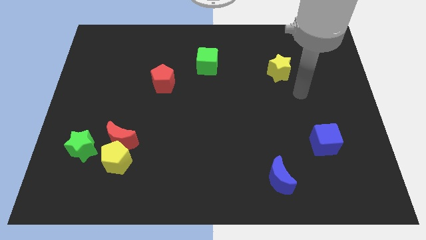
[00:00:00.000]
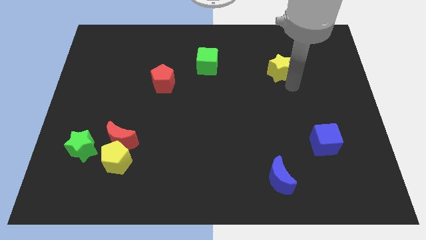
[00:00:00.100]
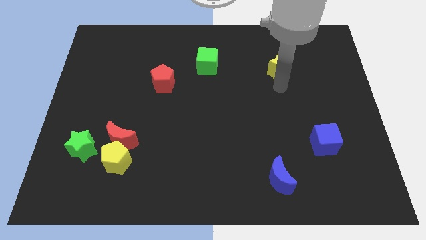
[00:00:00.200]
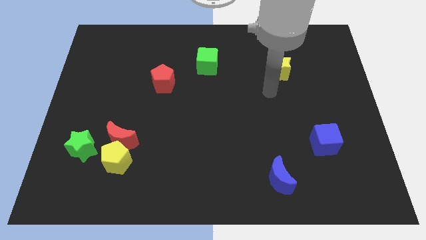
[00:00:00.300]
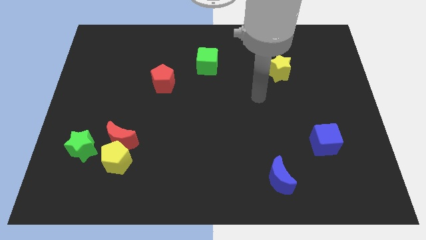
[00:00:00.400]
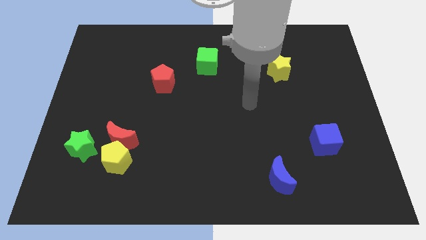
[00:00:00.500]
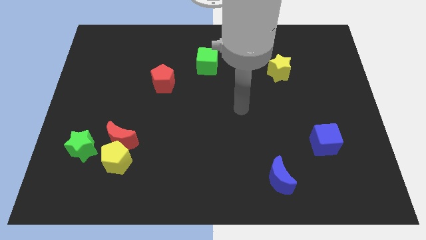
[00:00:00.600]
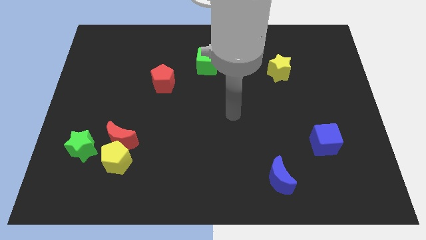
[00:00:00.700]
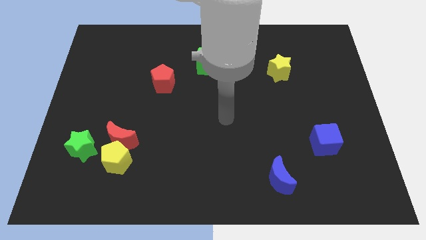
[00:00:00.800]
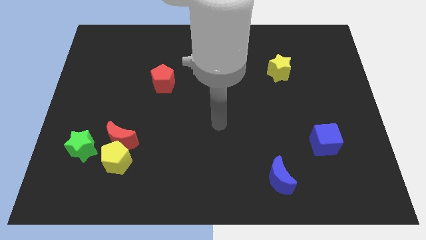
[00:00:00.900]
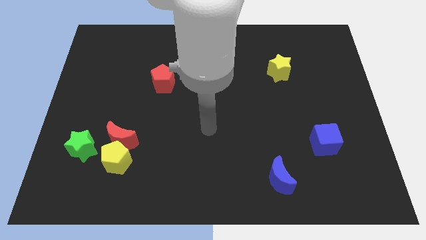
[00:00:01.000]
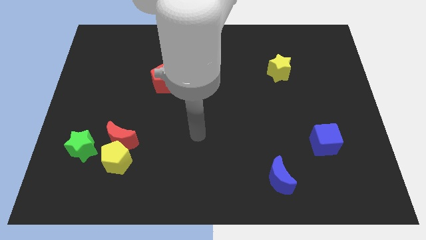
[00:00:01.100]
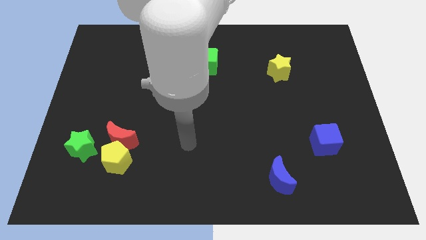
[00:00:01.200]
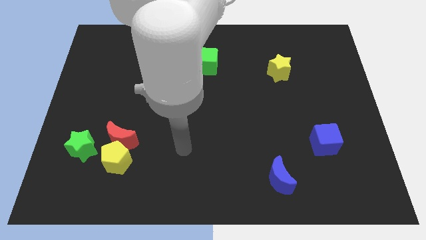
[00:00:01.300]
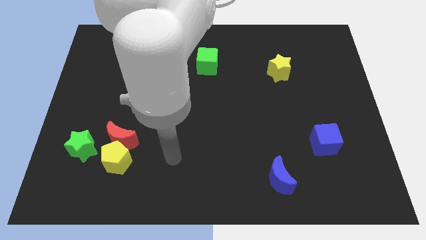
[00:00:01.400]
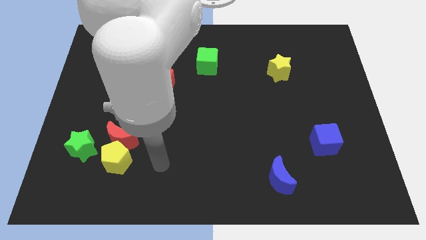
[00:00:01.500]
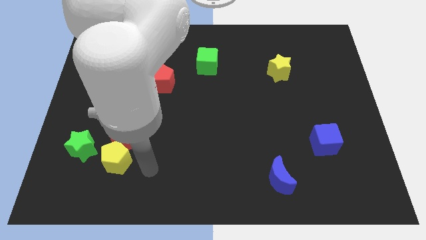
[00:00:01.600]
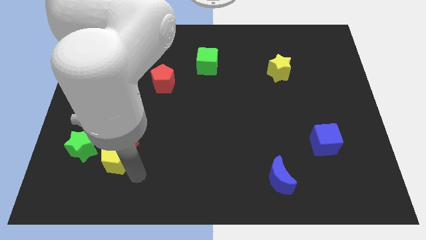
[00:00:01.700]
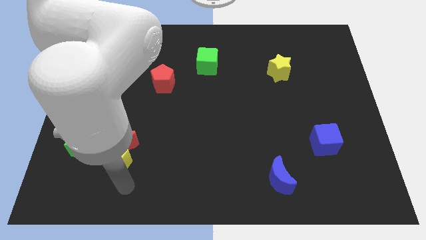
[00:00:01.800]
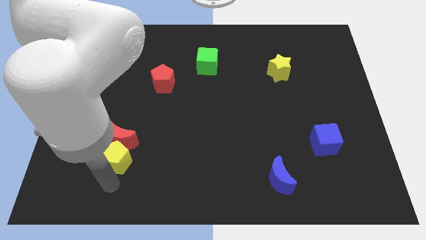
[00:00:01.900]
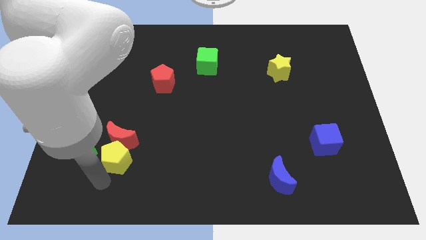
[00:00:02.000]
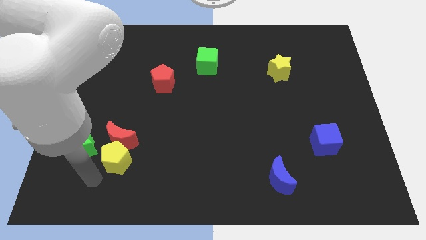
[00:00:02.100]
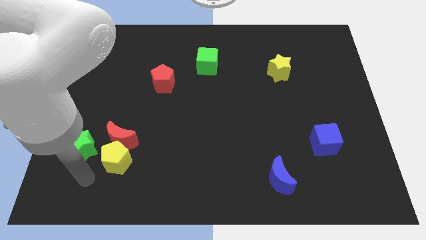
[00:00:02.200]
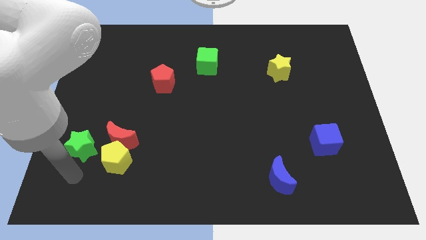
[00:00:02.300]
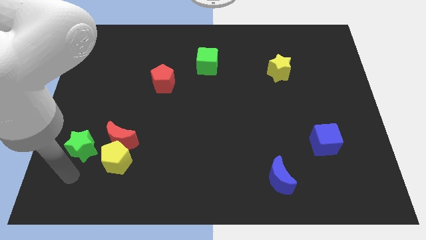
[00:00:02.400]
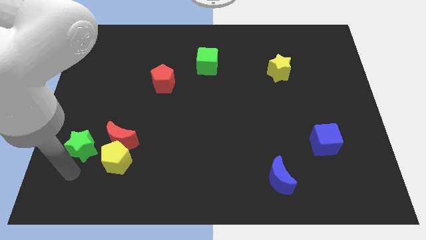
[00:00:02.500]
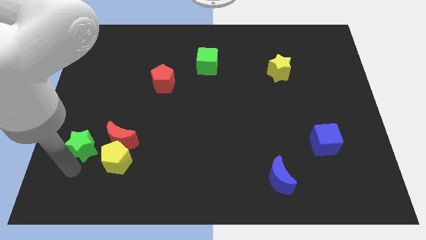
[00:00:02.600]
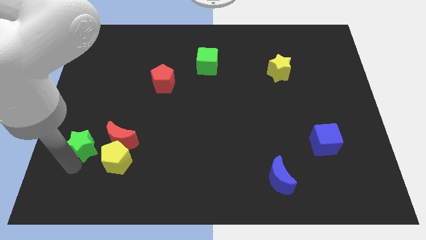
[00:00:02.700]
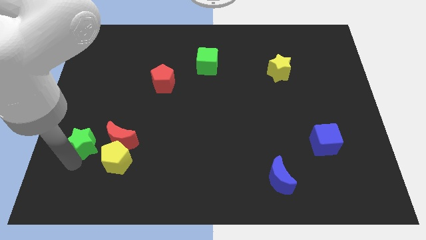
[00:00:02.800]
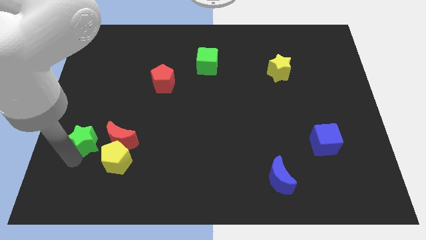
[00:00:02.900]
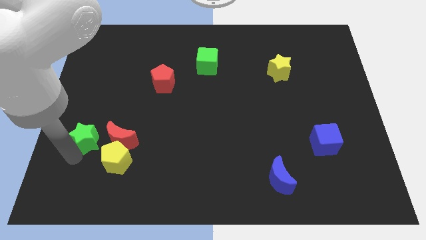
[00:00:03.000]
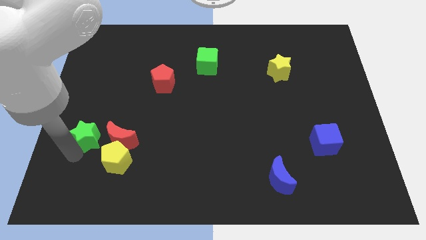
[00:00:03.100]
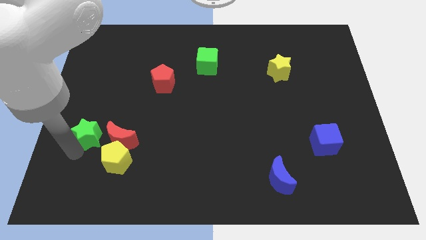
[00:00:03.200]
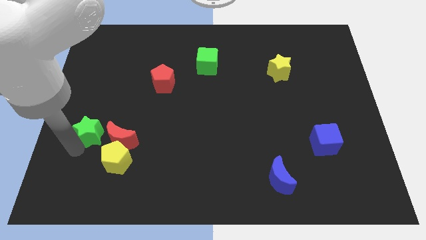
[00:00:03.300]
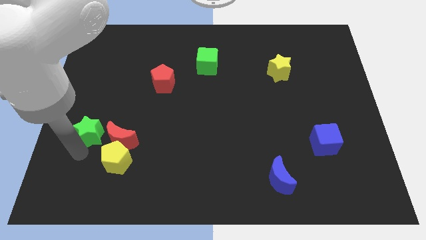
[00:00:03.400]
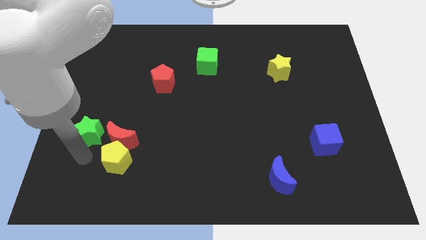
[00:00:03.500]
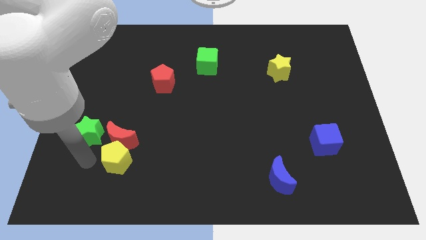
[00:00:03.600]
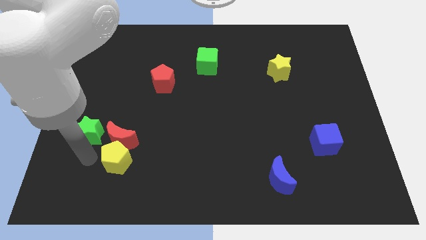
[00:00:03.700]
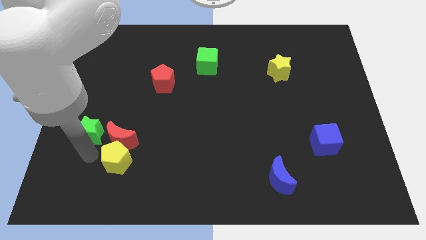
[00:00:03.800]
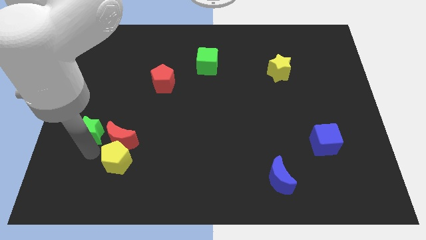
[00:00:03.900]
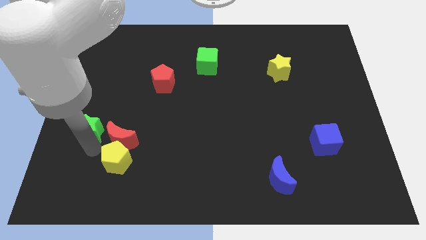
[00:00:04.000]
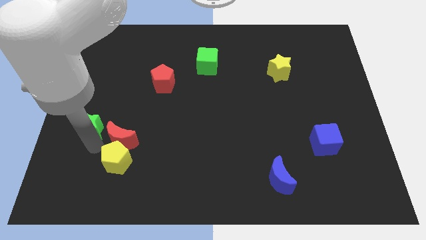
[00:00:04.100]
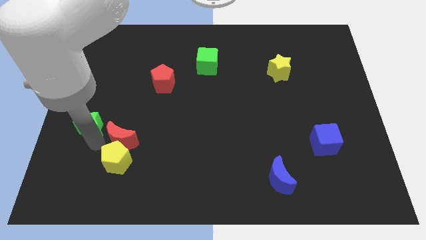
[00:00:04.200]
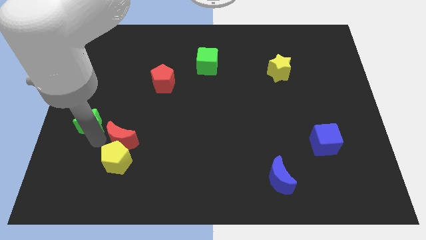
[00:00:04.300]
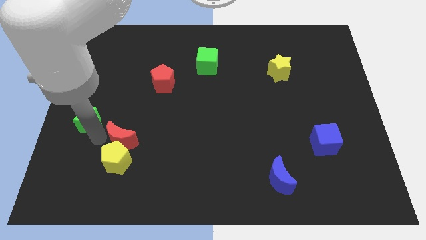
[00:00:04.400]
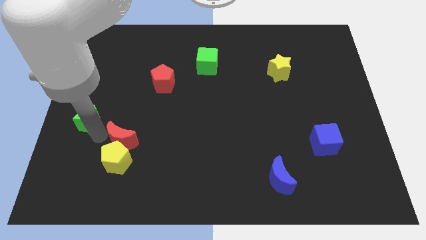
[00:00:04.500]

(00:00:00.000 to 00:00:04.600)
slightly push the green star upwards

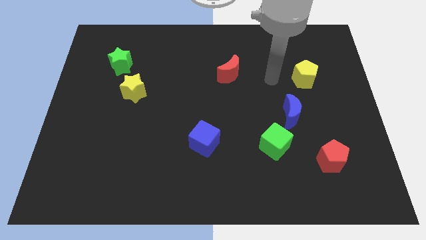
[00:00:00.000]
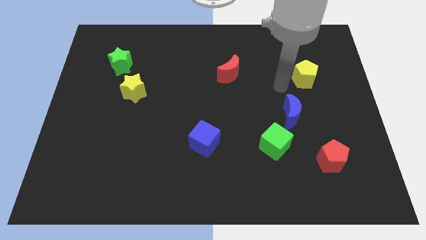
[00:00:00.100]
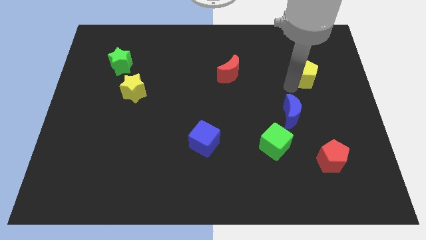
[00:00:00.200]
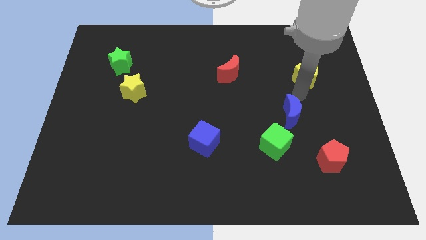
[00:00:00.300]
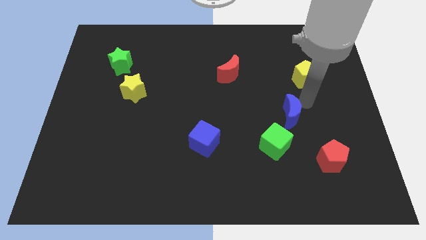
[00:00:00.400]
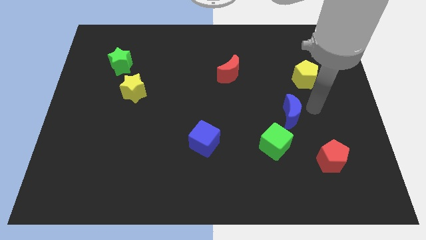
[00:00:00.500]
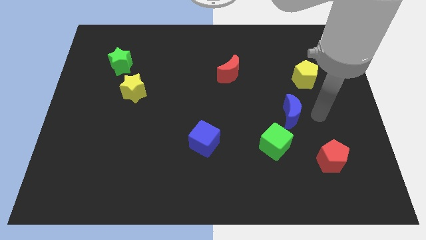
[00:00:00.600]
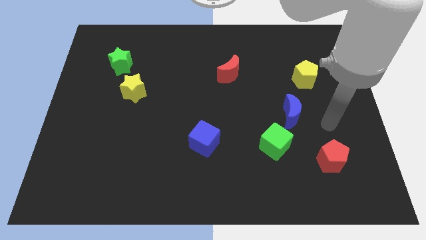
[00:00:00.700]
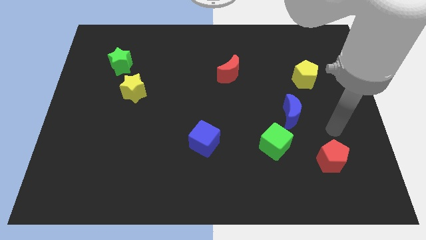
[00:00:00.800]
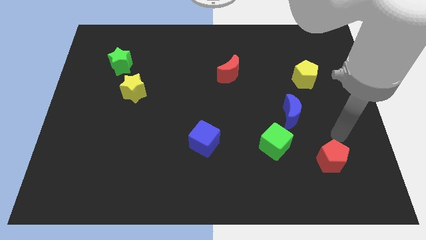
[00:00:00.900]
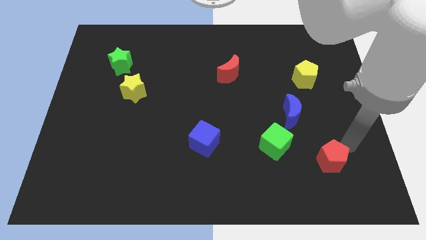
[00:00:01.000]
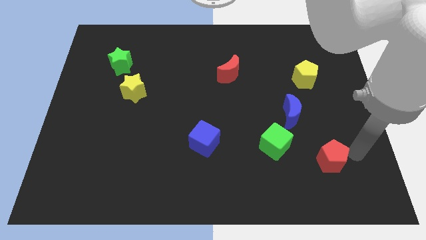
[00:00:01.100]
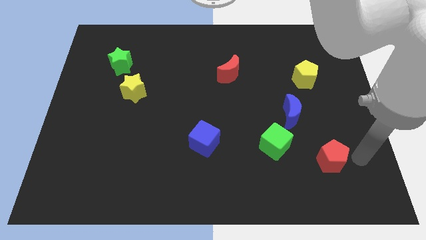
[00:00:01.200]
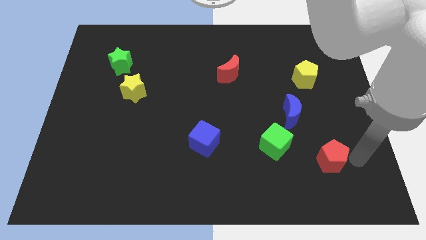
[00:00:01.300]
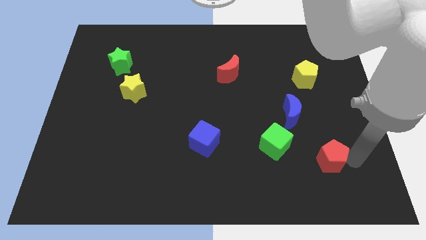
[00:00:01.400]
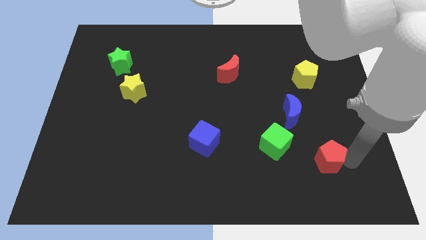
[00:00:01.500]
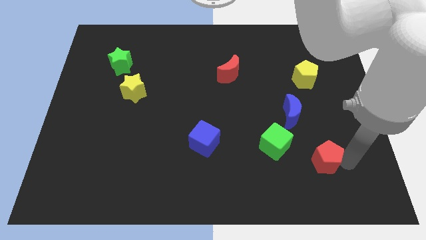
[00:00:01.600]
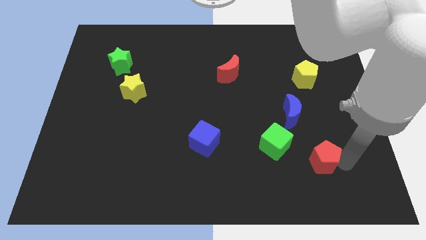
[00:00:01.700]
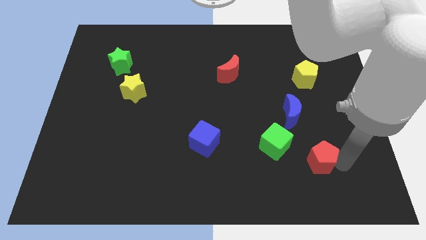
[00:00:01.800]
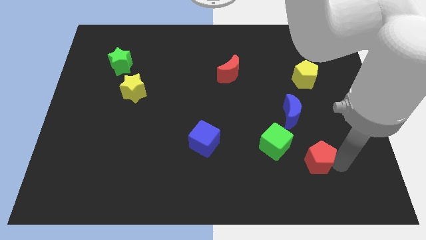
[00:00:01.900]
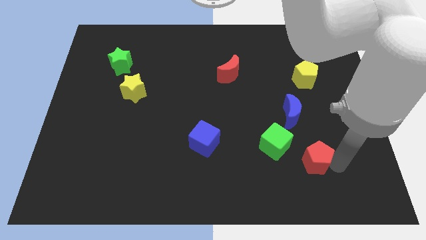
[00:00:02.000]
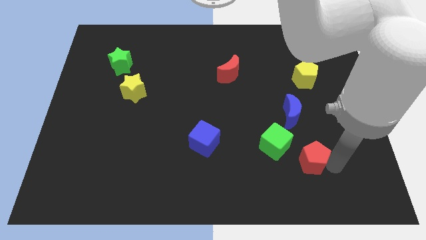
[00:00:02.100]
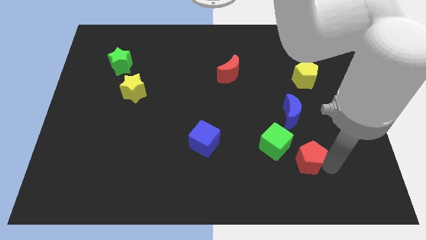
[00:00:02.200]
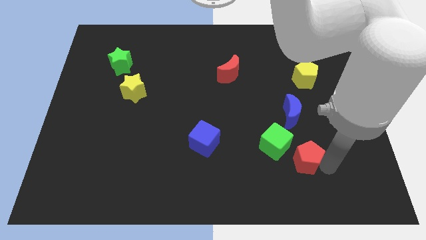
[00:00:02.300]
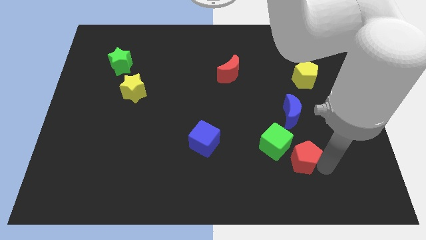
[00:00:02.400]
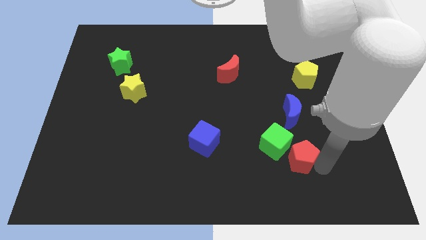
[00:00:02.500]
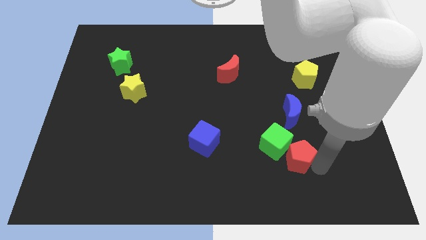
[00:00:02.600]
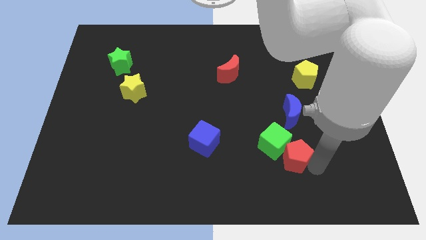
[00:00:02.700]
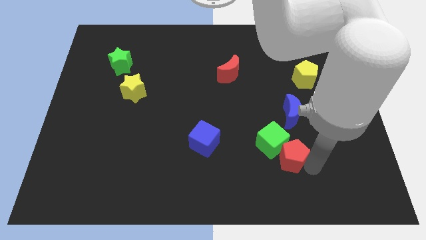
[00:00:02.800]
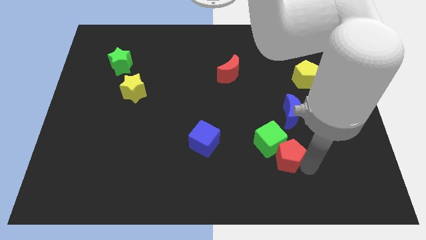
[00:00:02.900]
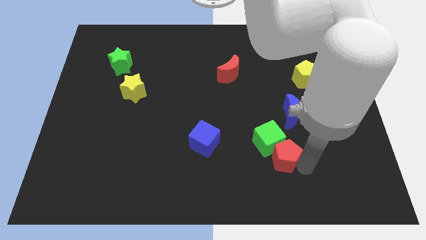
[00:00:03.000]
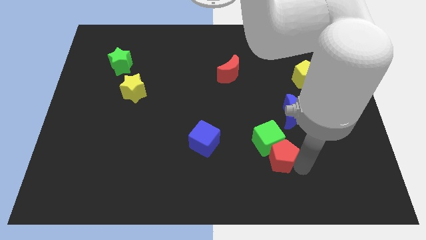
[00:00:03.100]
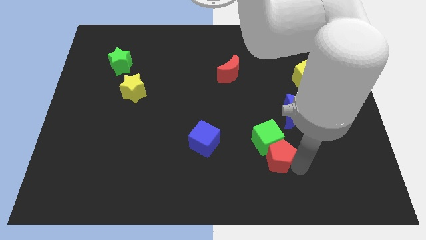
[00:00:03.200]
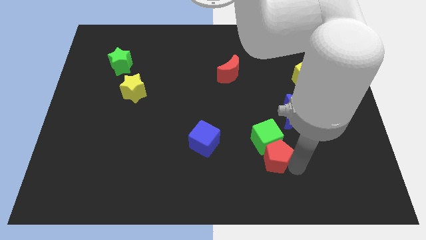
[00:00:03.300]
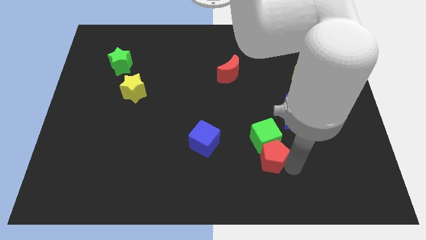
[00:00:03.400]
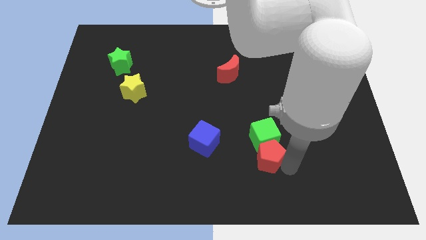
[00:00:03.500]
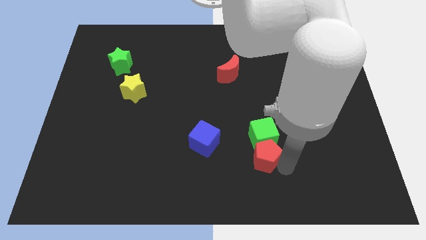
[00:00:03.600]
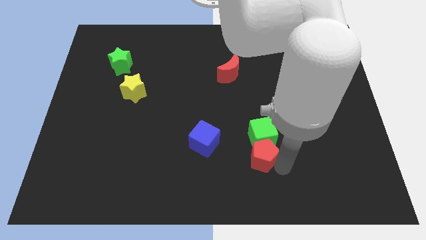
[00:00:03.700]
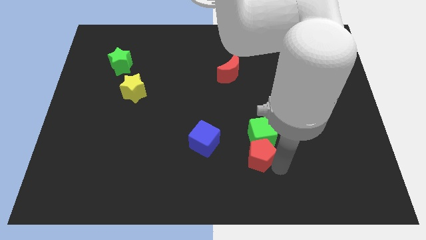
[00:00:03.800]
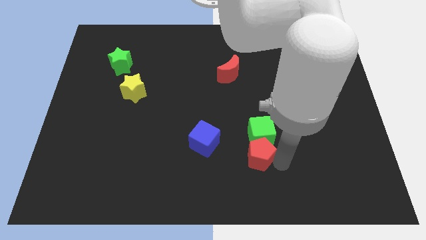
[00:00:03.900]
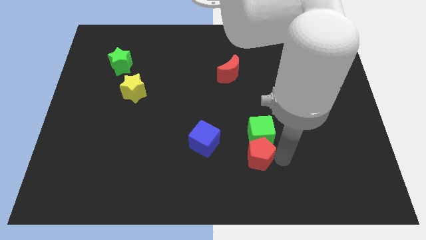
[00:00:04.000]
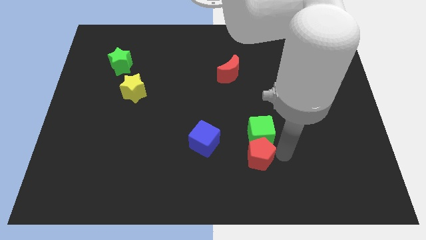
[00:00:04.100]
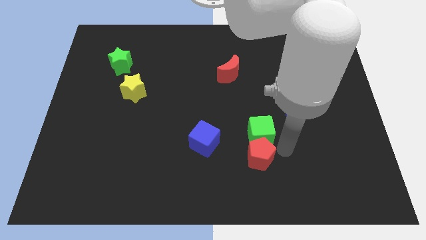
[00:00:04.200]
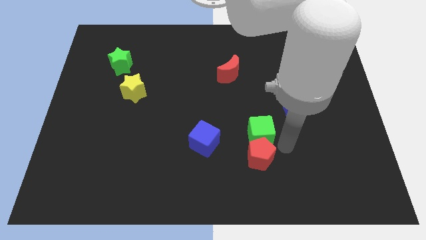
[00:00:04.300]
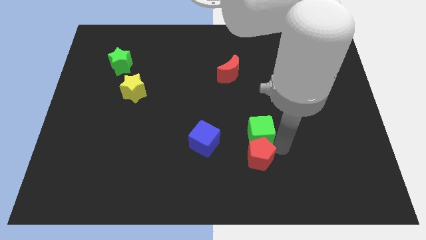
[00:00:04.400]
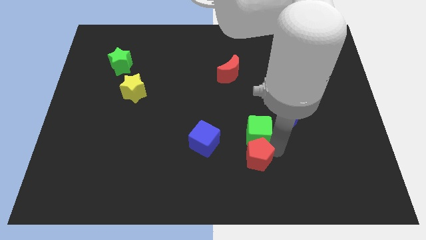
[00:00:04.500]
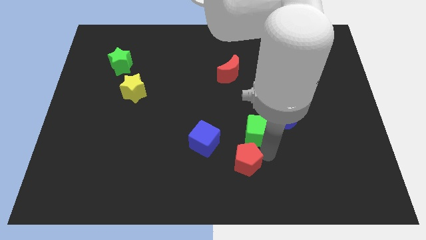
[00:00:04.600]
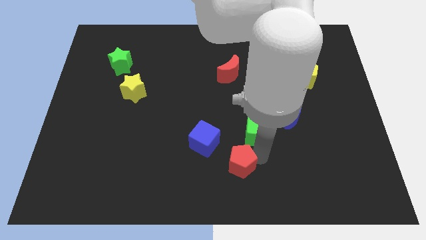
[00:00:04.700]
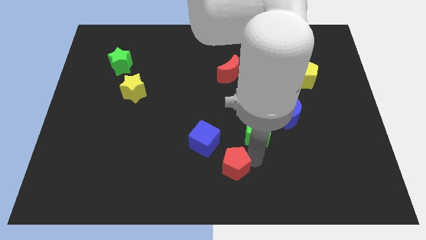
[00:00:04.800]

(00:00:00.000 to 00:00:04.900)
move the red pentagon to the left
